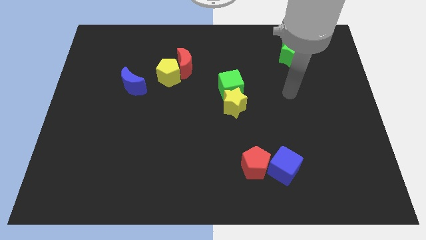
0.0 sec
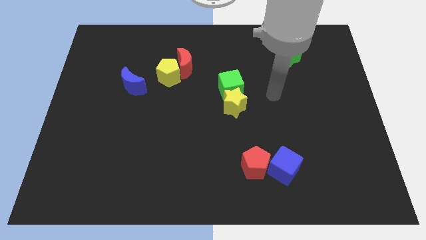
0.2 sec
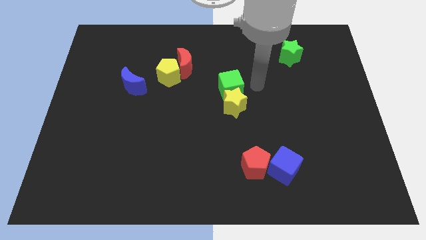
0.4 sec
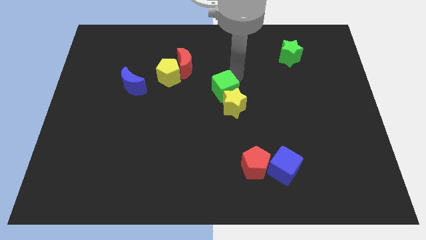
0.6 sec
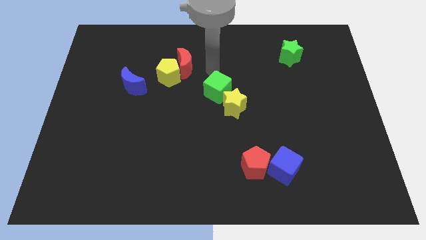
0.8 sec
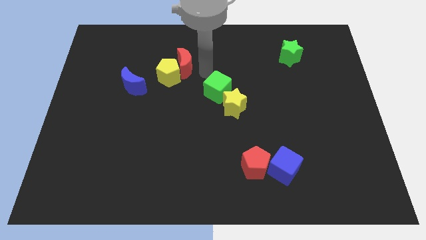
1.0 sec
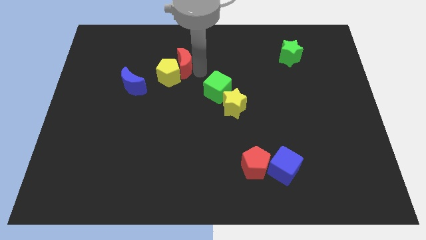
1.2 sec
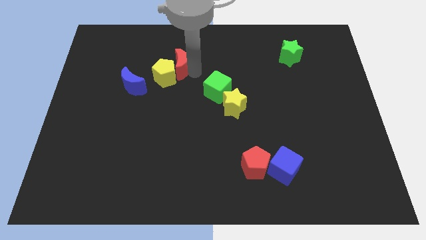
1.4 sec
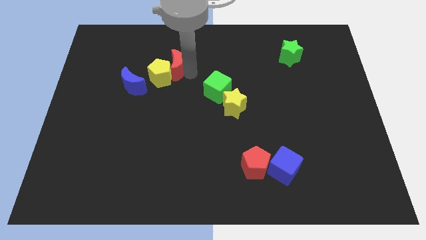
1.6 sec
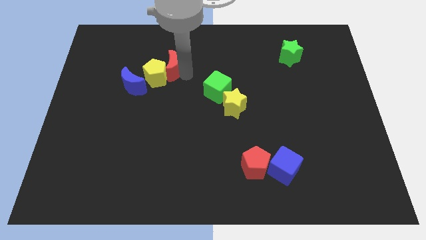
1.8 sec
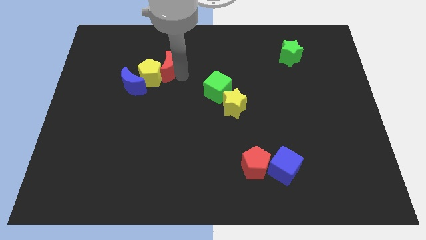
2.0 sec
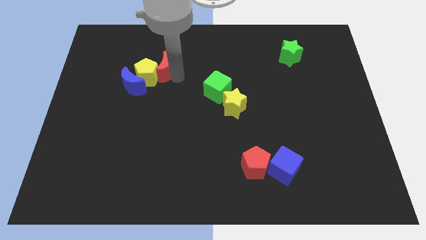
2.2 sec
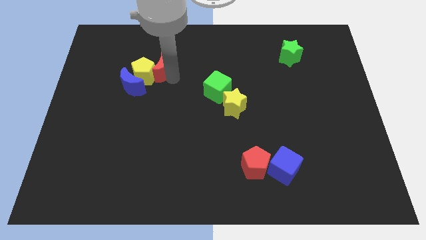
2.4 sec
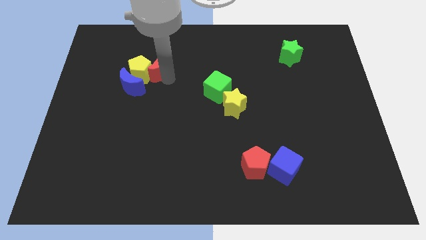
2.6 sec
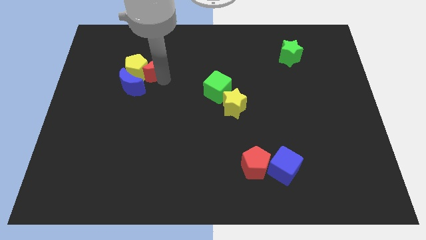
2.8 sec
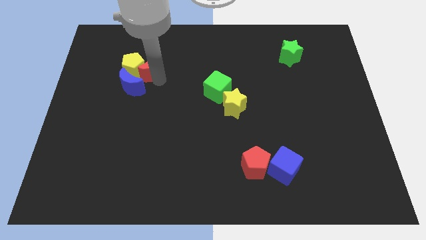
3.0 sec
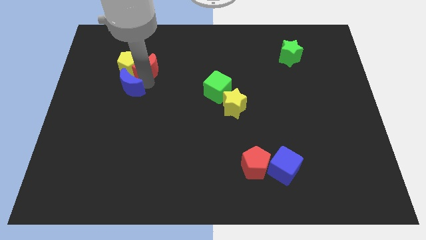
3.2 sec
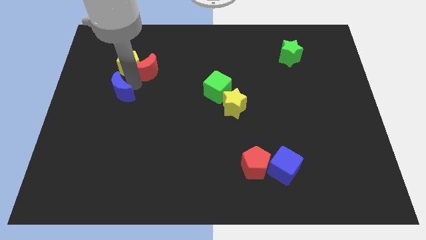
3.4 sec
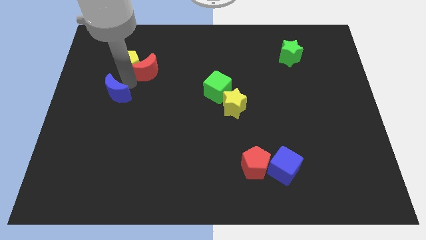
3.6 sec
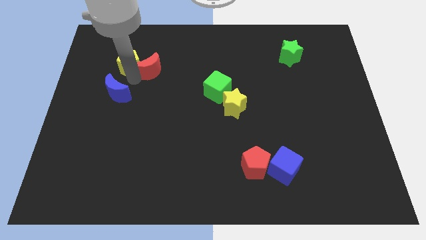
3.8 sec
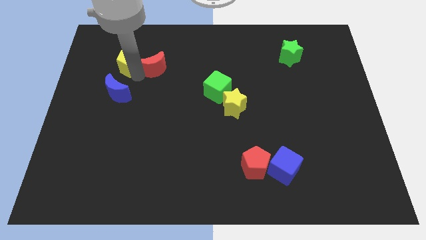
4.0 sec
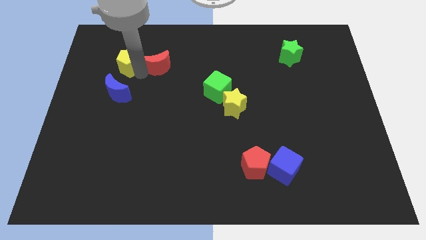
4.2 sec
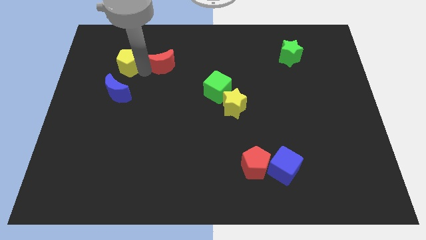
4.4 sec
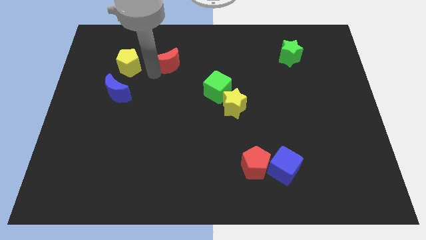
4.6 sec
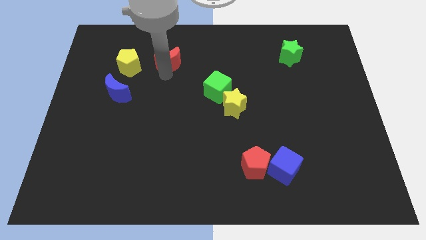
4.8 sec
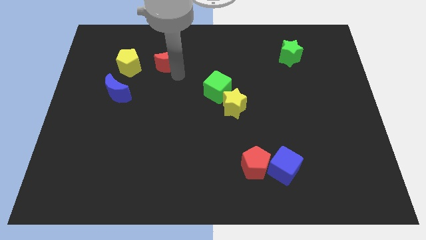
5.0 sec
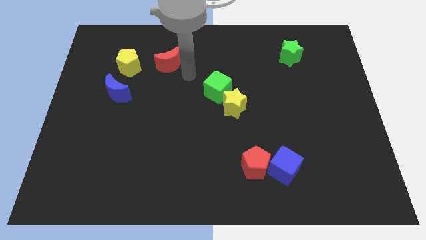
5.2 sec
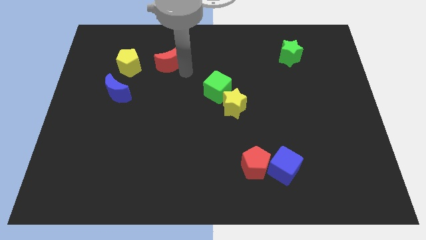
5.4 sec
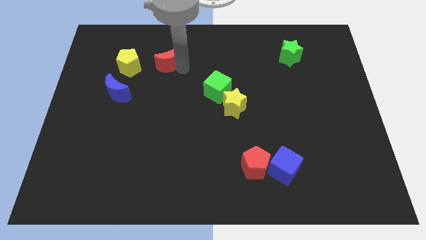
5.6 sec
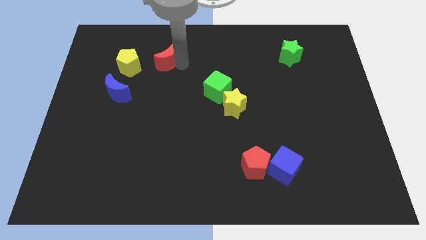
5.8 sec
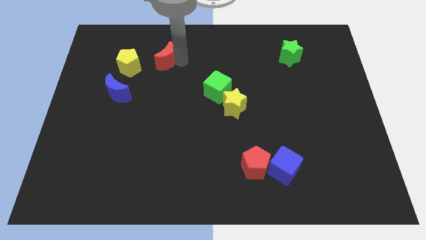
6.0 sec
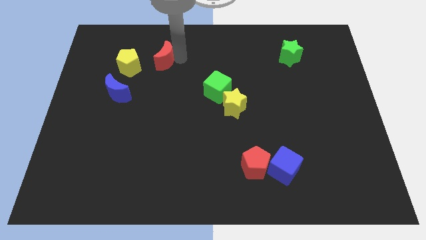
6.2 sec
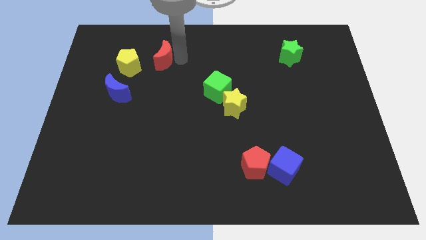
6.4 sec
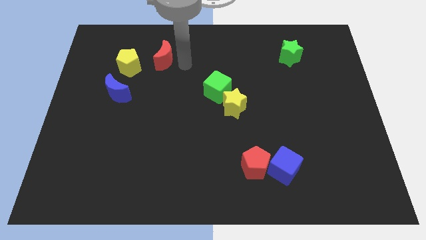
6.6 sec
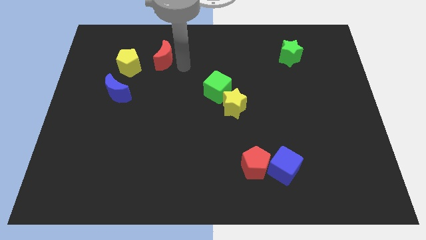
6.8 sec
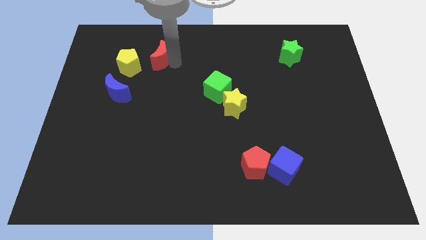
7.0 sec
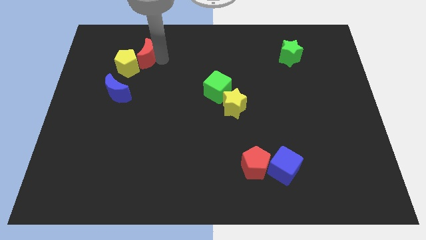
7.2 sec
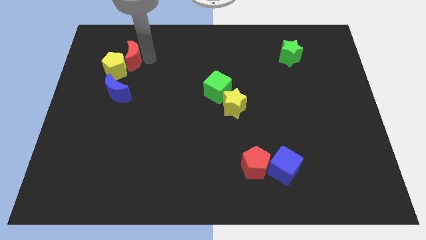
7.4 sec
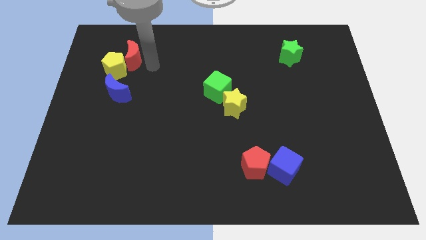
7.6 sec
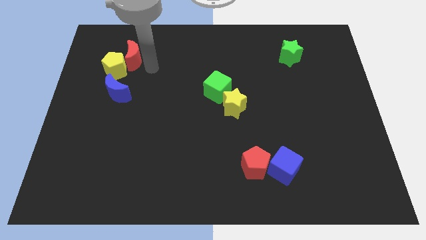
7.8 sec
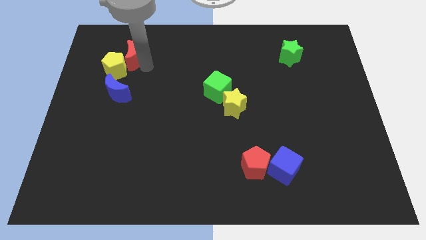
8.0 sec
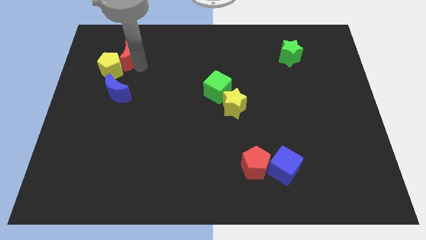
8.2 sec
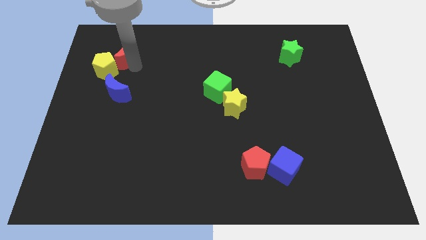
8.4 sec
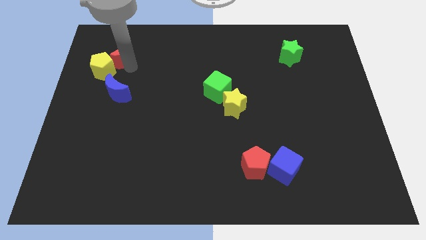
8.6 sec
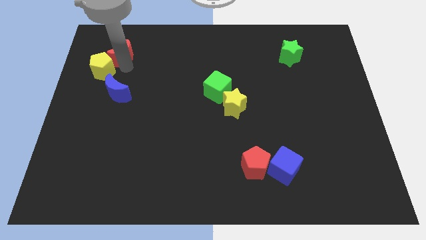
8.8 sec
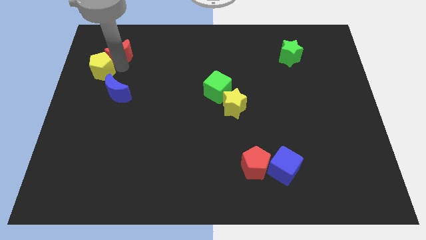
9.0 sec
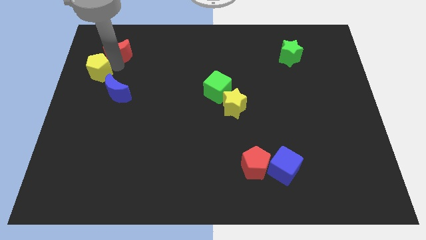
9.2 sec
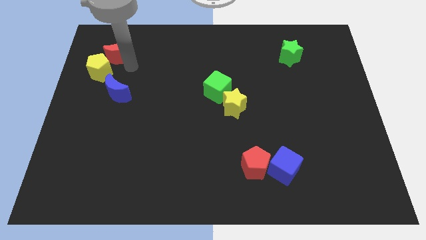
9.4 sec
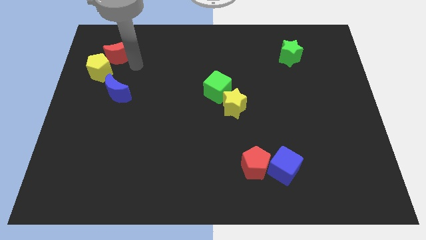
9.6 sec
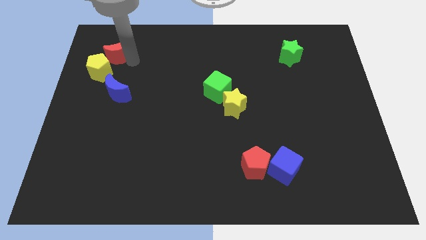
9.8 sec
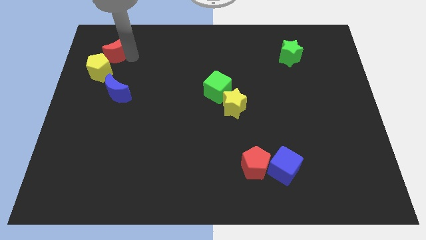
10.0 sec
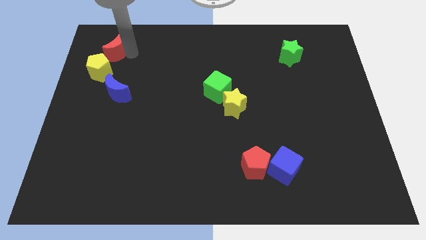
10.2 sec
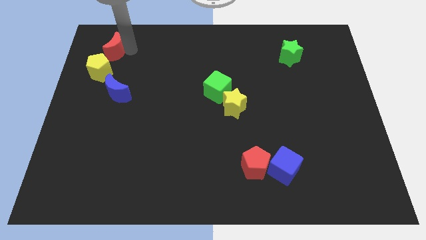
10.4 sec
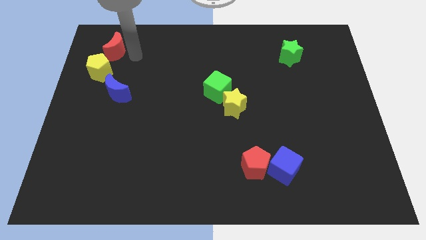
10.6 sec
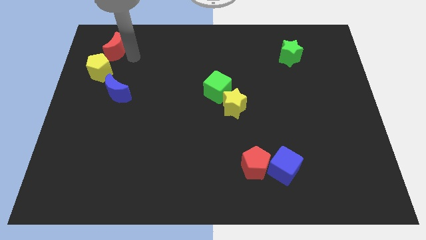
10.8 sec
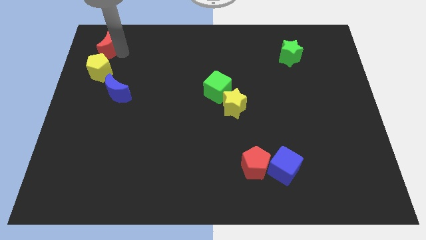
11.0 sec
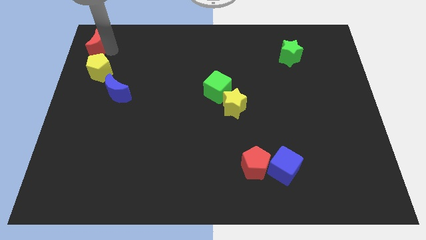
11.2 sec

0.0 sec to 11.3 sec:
put the red moon to the upper left corner

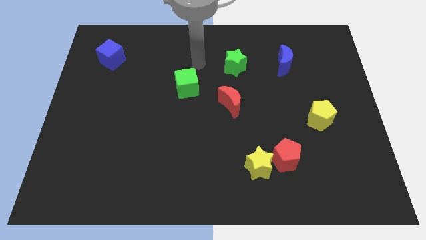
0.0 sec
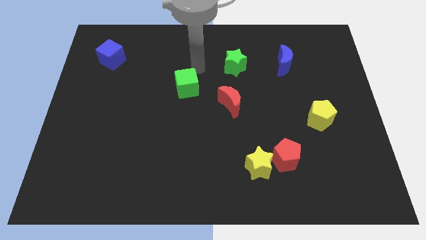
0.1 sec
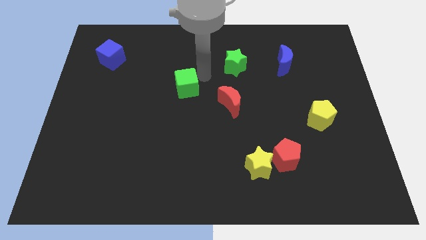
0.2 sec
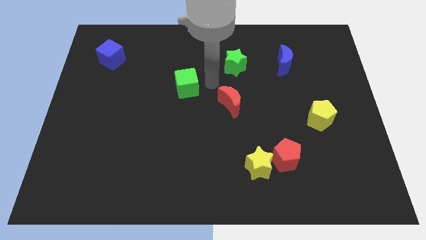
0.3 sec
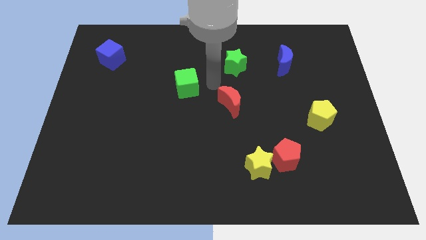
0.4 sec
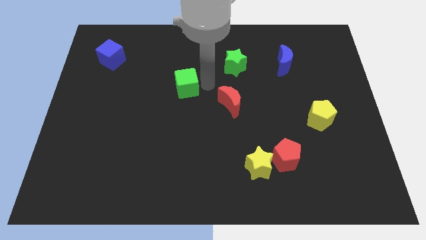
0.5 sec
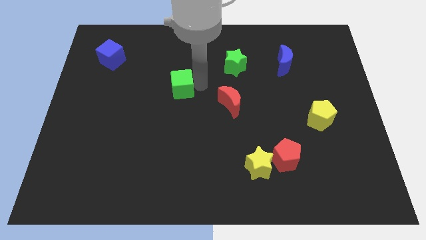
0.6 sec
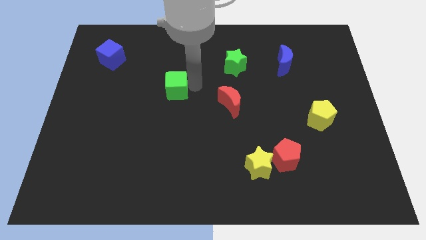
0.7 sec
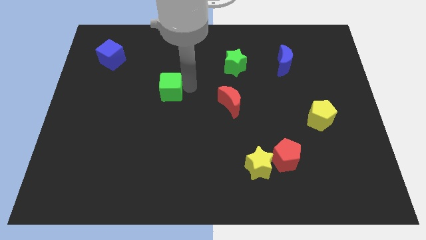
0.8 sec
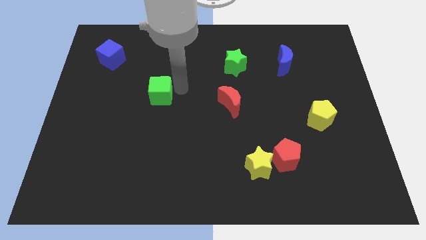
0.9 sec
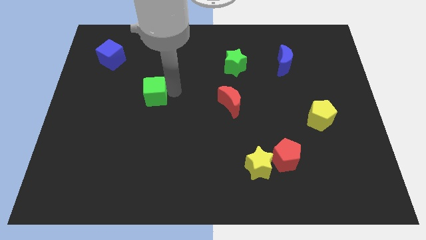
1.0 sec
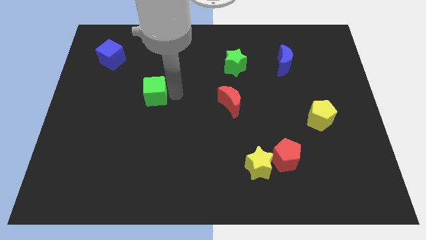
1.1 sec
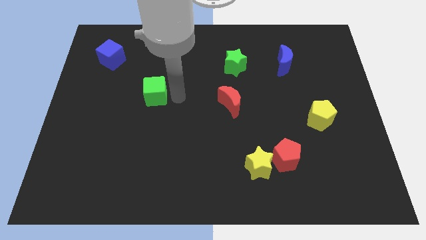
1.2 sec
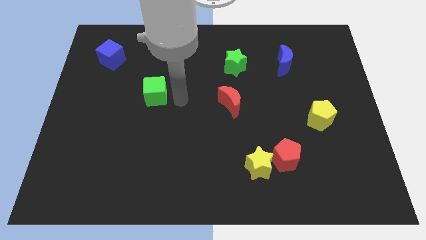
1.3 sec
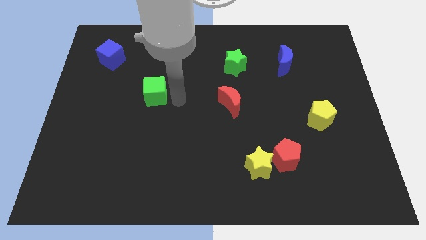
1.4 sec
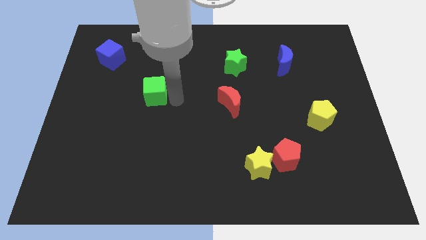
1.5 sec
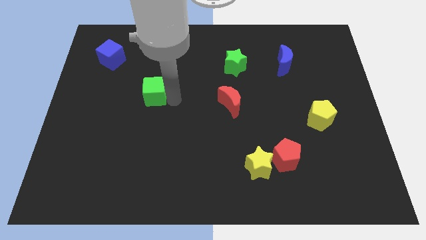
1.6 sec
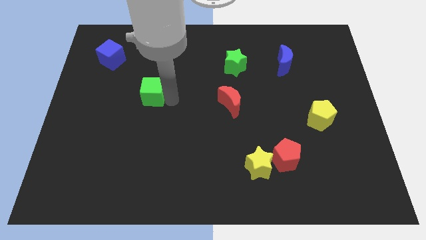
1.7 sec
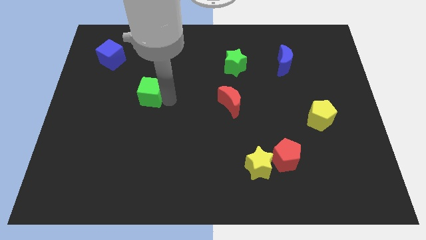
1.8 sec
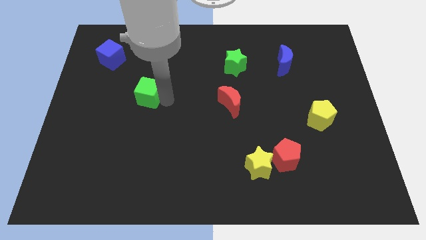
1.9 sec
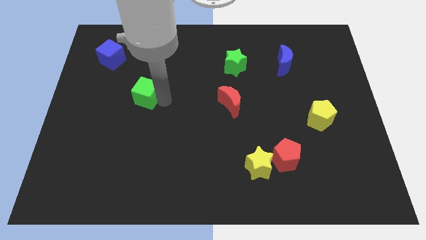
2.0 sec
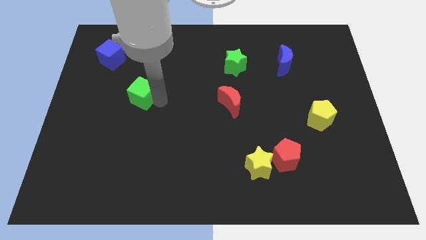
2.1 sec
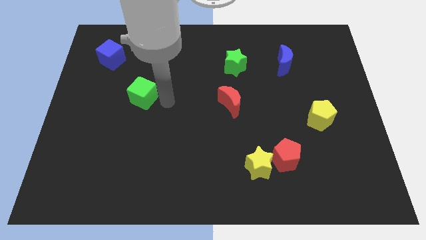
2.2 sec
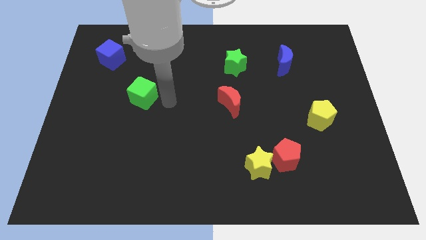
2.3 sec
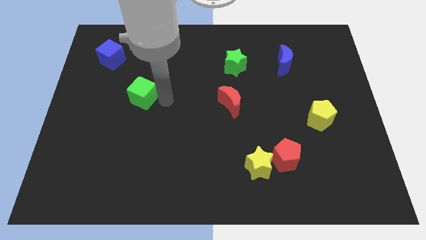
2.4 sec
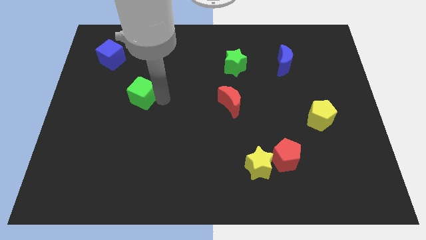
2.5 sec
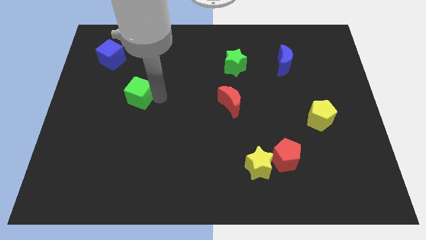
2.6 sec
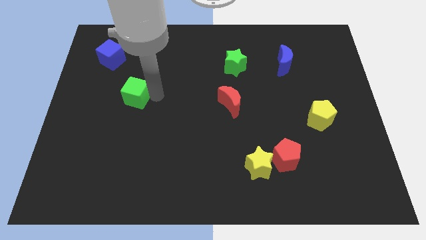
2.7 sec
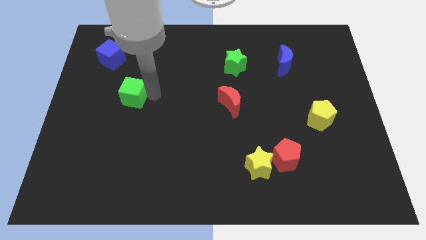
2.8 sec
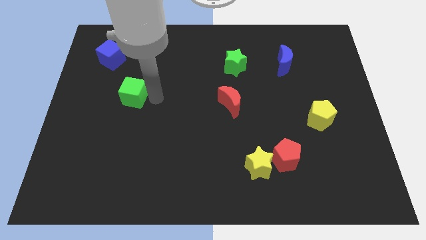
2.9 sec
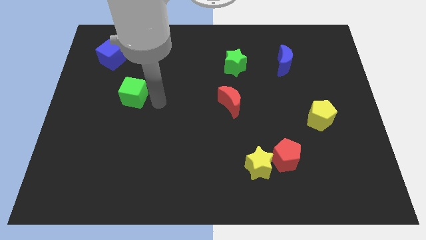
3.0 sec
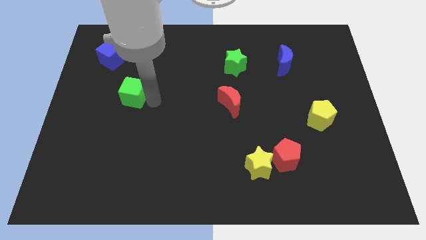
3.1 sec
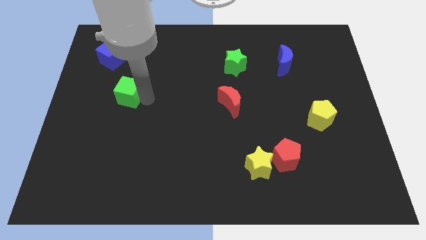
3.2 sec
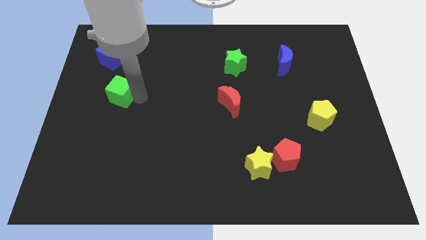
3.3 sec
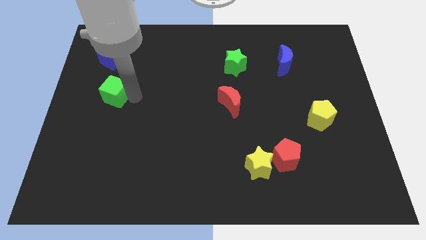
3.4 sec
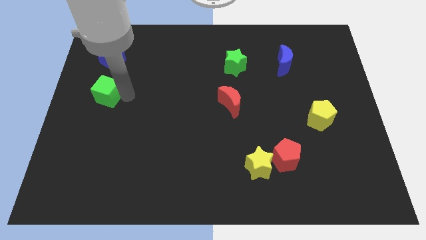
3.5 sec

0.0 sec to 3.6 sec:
put the green cube to the left side
